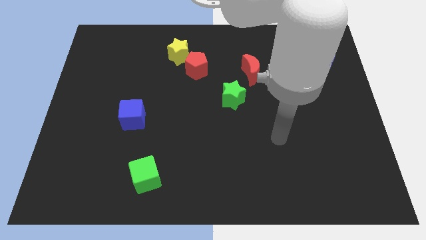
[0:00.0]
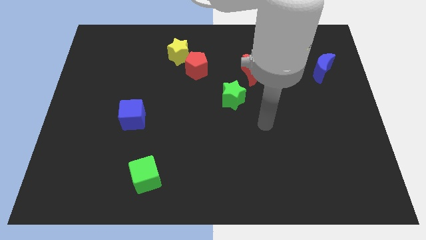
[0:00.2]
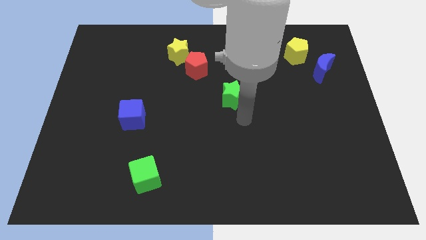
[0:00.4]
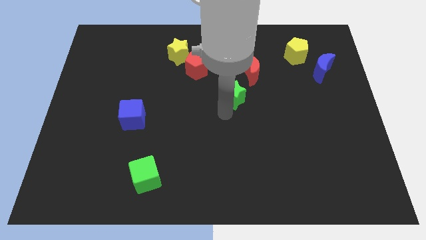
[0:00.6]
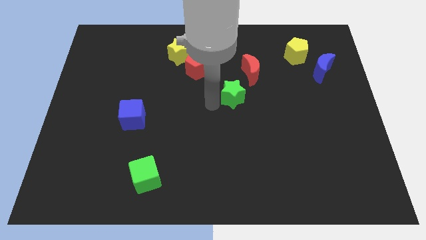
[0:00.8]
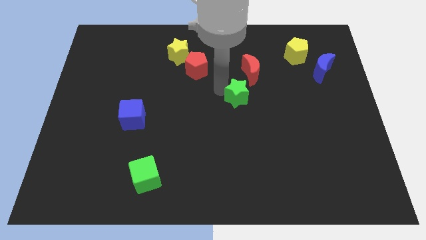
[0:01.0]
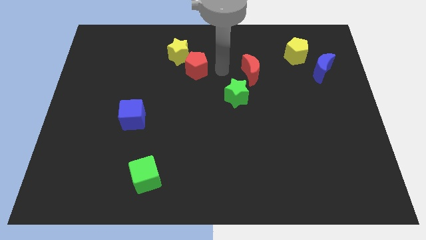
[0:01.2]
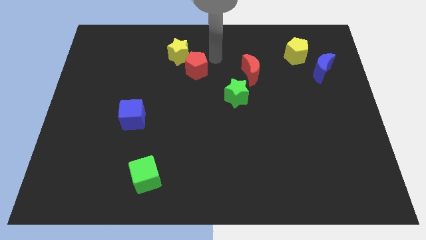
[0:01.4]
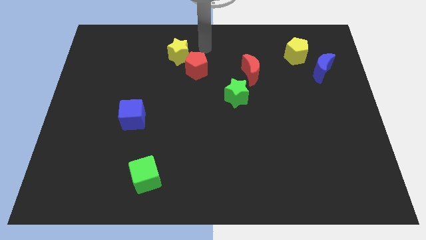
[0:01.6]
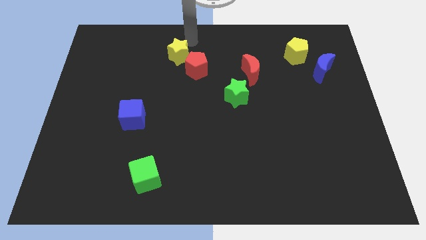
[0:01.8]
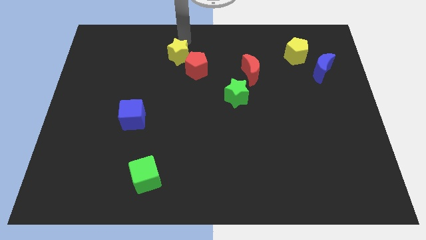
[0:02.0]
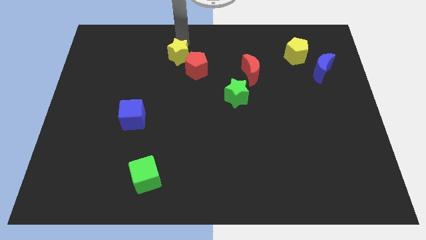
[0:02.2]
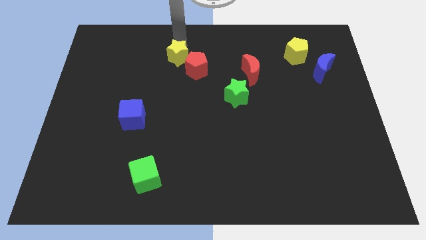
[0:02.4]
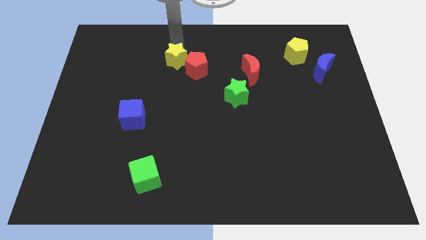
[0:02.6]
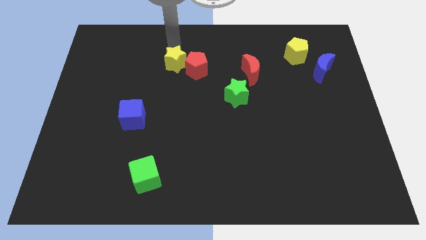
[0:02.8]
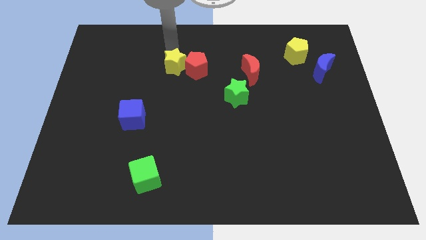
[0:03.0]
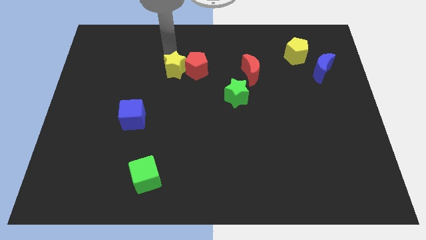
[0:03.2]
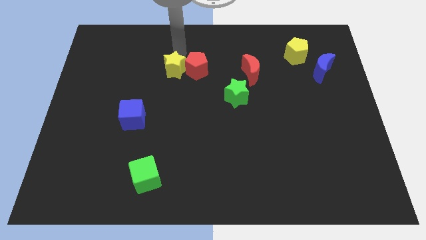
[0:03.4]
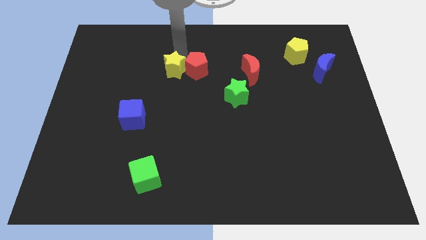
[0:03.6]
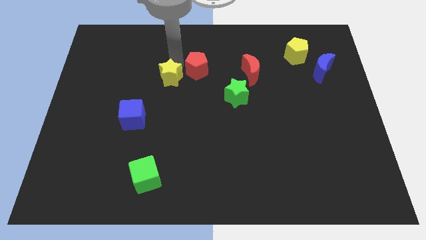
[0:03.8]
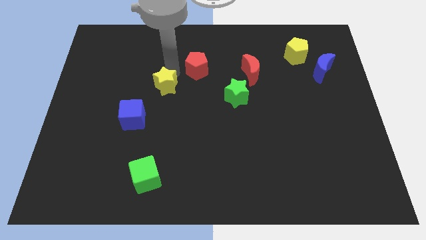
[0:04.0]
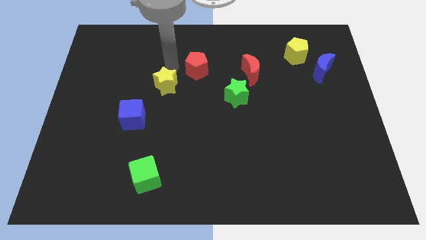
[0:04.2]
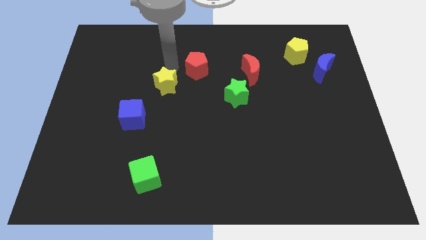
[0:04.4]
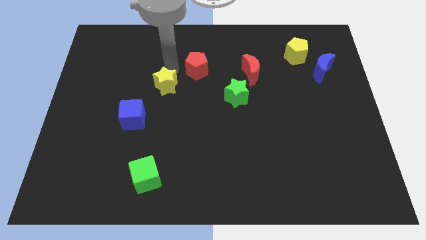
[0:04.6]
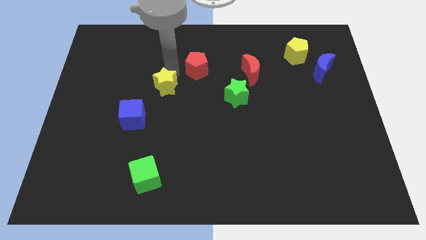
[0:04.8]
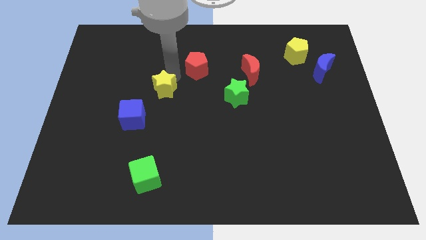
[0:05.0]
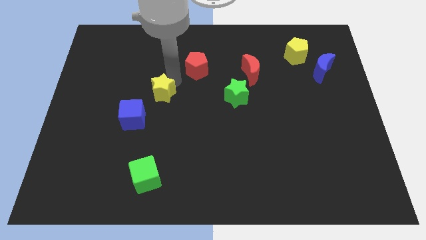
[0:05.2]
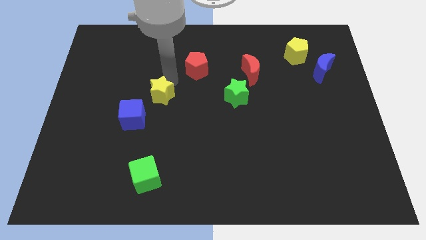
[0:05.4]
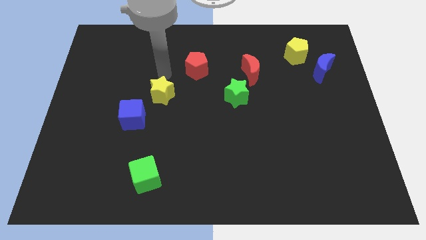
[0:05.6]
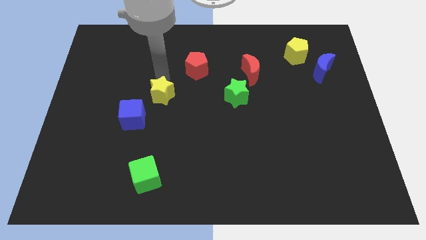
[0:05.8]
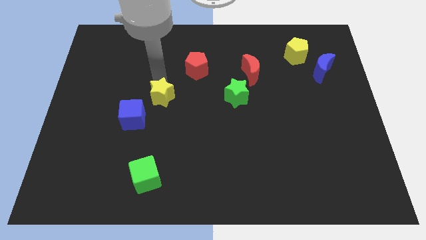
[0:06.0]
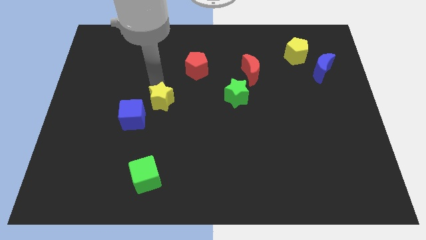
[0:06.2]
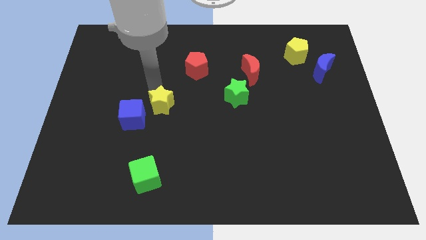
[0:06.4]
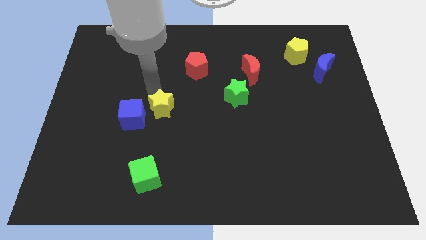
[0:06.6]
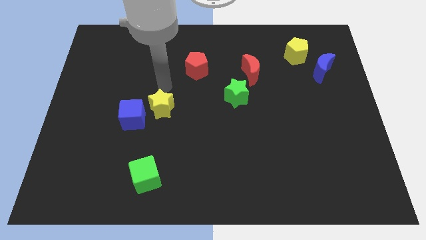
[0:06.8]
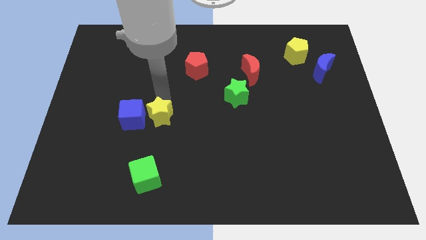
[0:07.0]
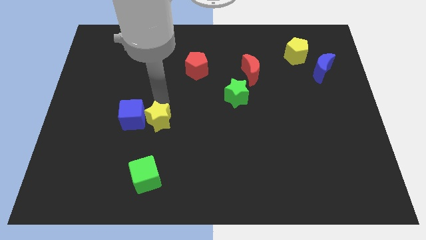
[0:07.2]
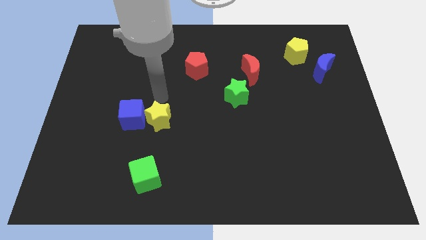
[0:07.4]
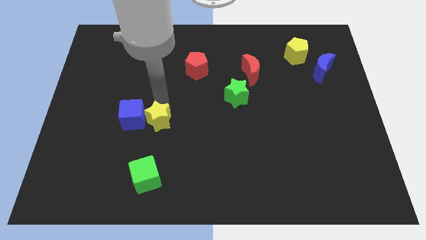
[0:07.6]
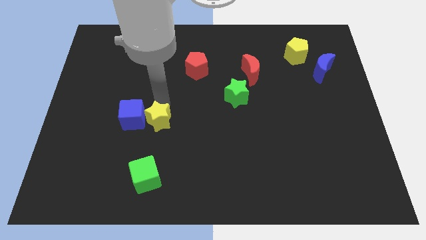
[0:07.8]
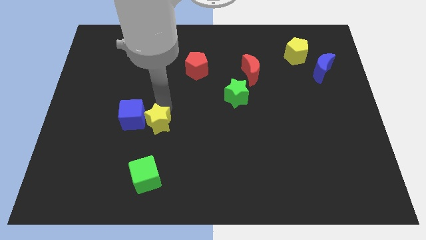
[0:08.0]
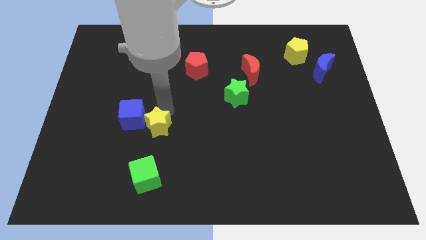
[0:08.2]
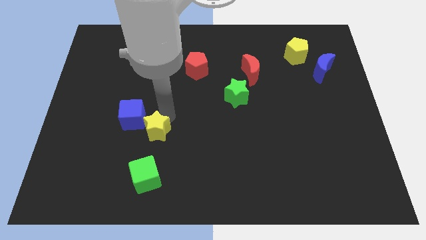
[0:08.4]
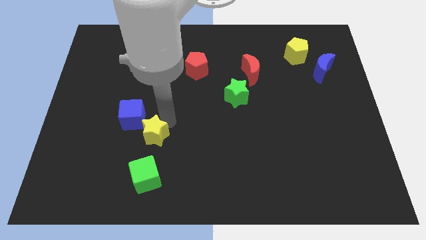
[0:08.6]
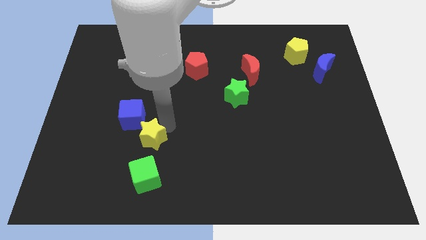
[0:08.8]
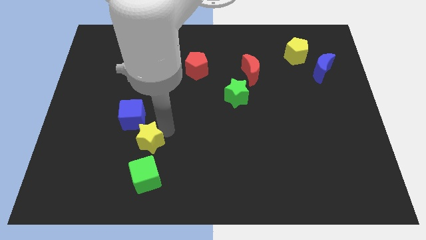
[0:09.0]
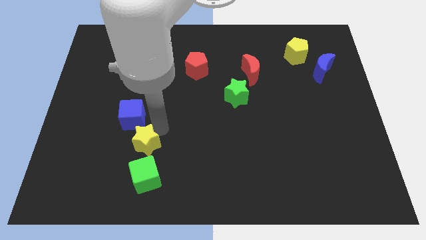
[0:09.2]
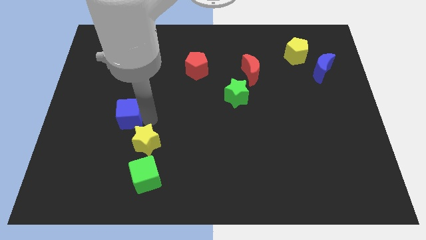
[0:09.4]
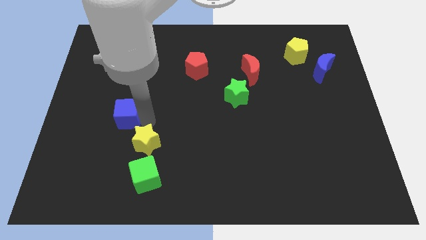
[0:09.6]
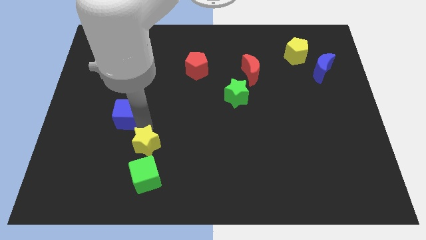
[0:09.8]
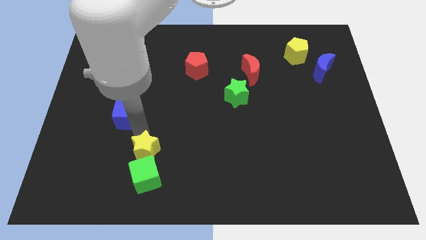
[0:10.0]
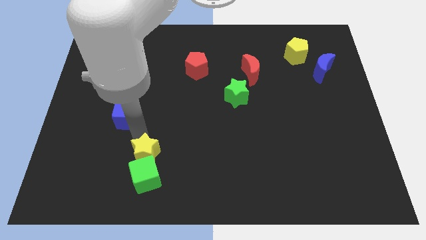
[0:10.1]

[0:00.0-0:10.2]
push the yellow star towards the green cube

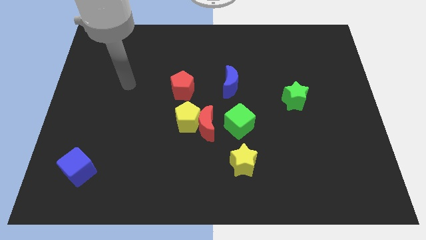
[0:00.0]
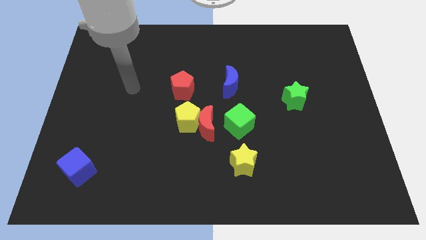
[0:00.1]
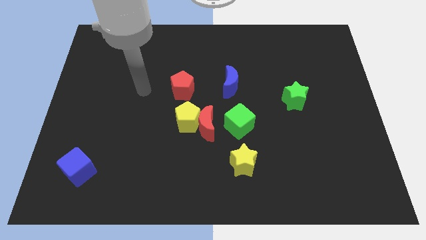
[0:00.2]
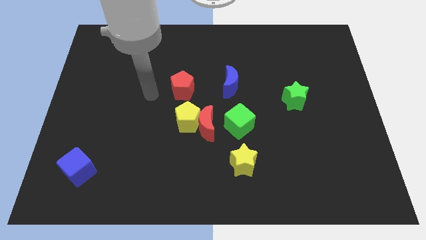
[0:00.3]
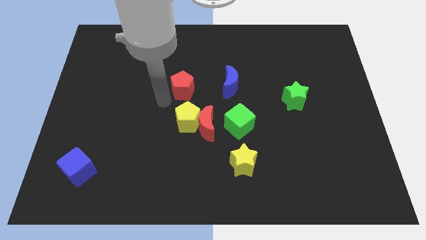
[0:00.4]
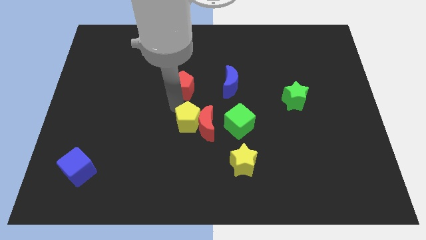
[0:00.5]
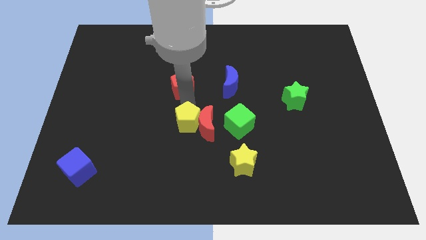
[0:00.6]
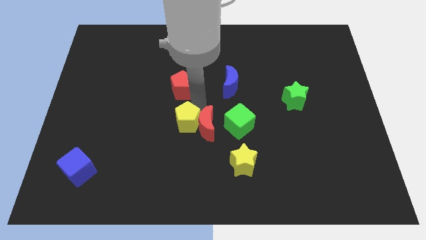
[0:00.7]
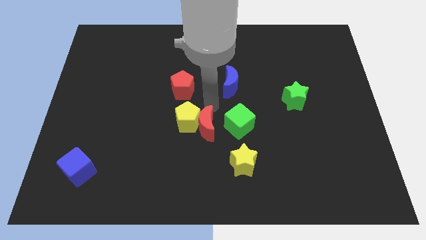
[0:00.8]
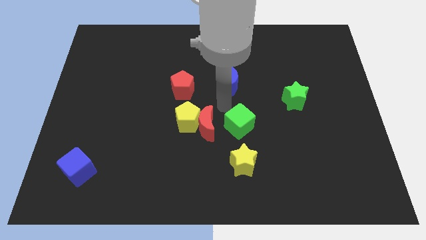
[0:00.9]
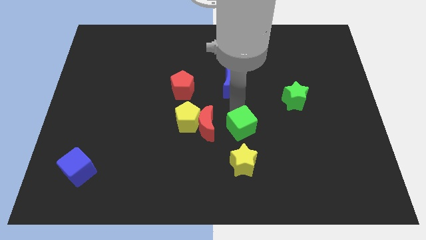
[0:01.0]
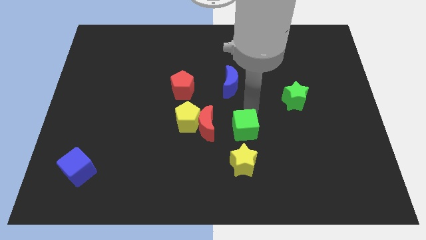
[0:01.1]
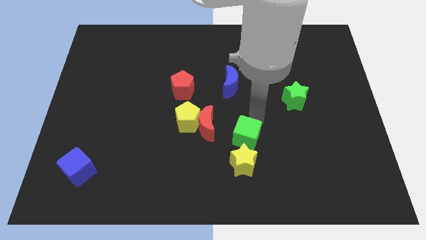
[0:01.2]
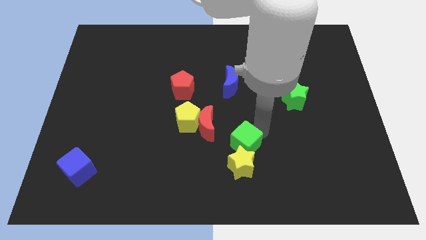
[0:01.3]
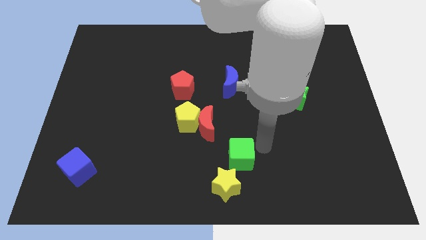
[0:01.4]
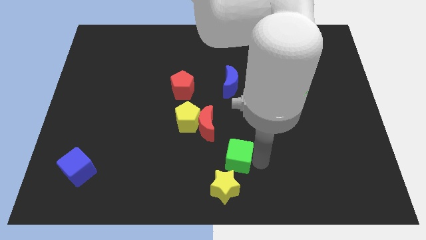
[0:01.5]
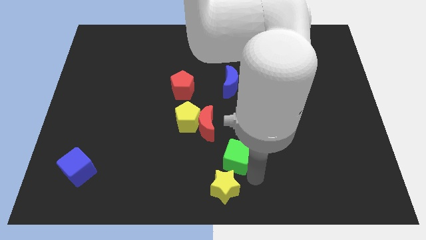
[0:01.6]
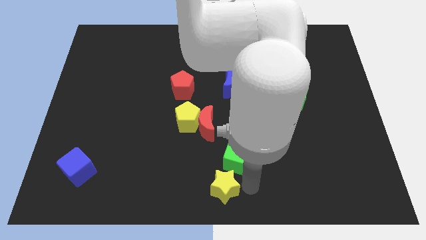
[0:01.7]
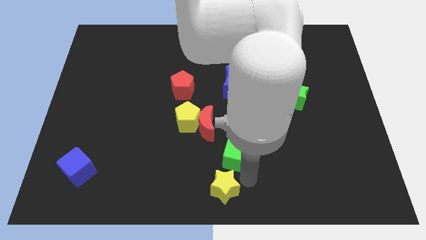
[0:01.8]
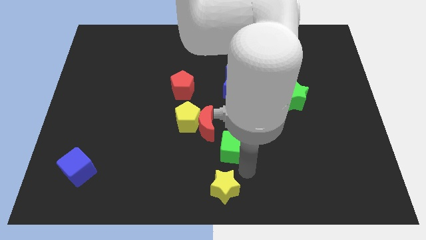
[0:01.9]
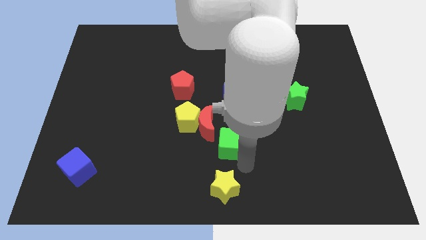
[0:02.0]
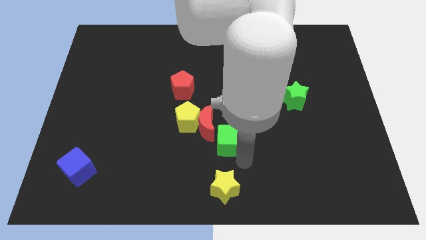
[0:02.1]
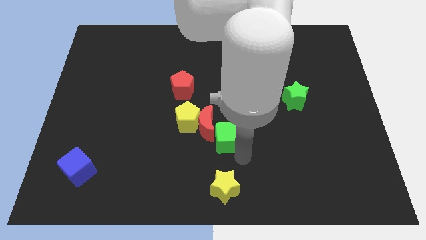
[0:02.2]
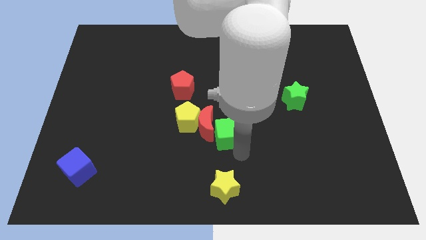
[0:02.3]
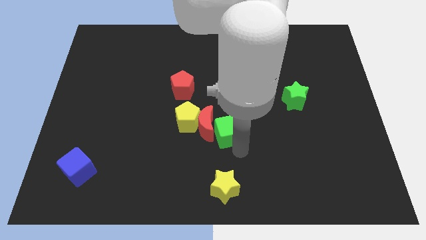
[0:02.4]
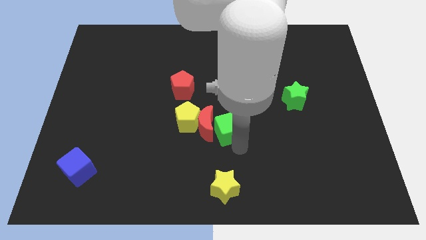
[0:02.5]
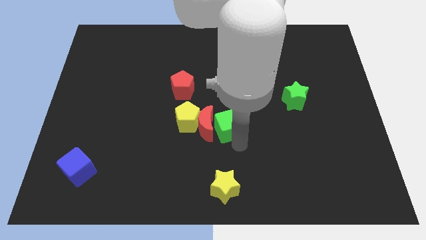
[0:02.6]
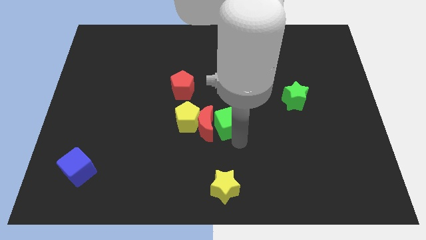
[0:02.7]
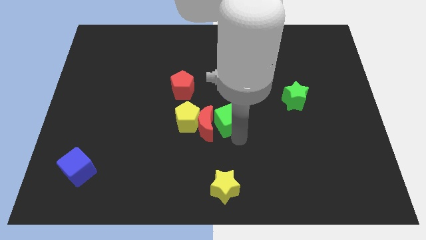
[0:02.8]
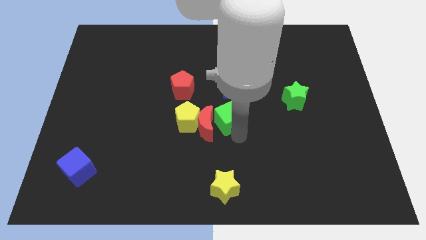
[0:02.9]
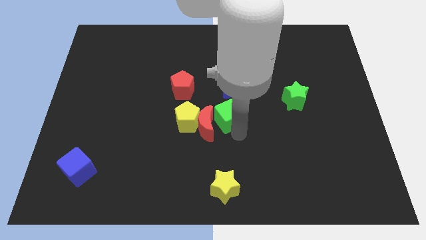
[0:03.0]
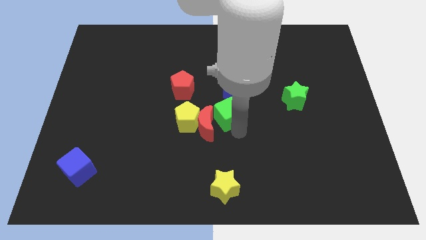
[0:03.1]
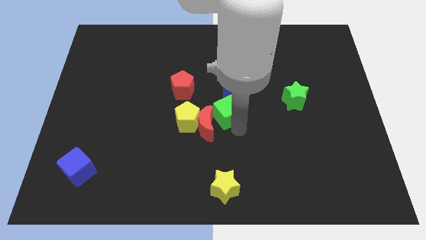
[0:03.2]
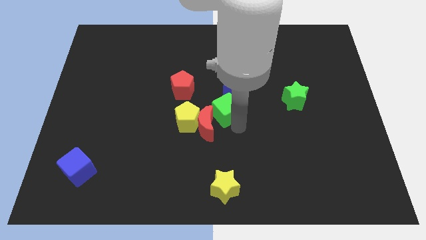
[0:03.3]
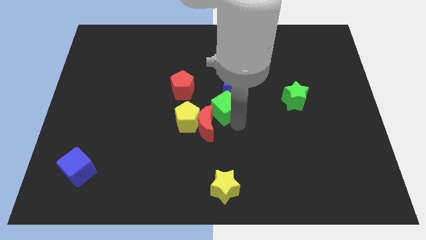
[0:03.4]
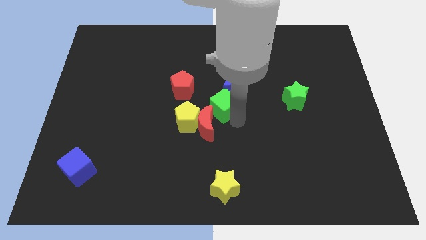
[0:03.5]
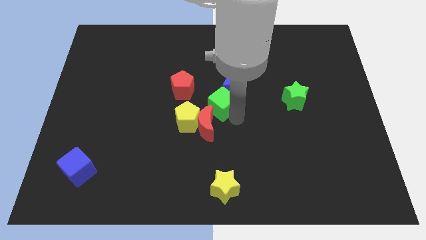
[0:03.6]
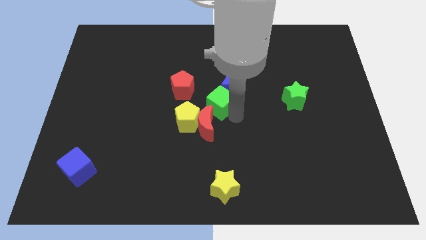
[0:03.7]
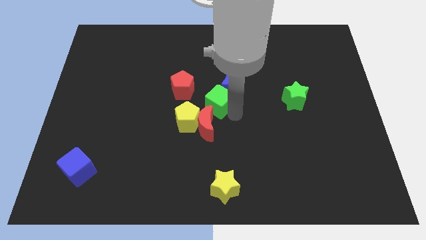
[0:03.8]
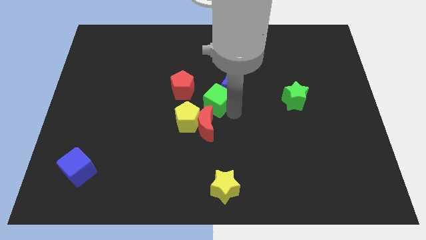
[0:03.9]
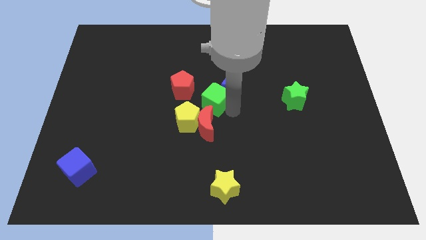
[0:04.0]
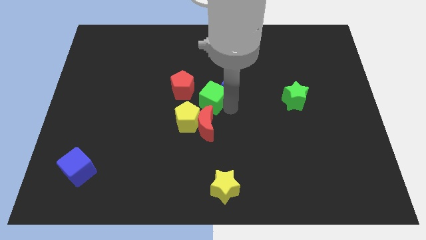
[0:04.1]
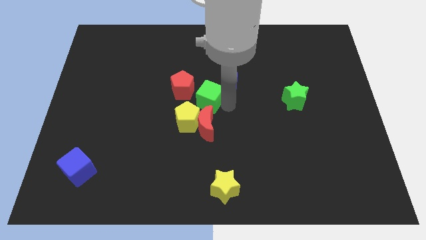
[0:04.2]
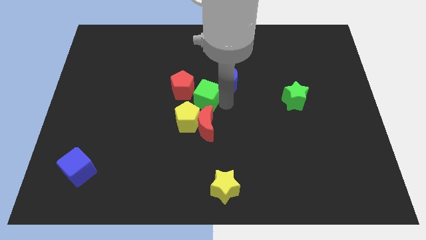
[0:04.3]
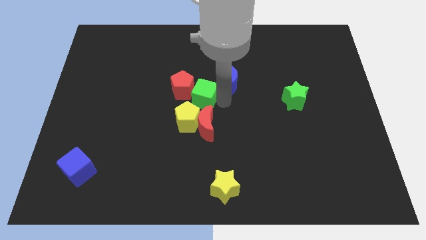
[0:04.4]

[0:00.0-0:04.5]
slide the green cube next to the red pentagon
